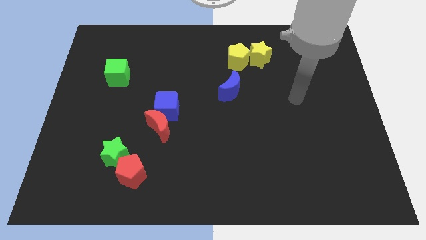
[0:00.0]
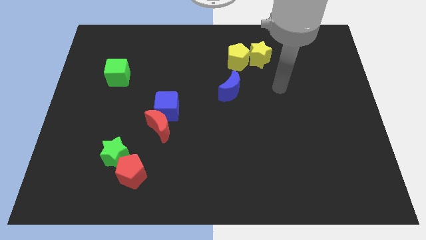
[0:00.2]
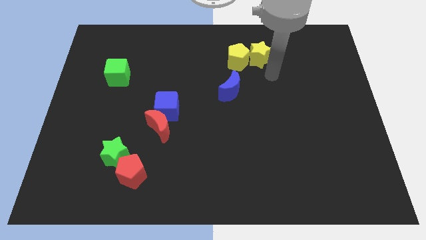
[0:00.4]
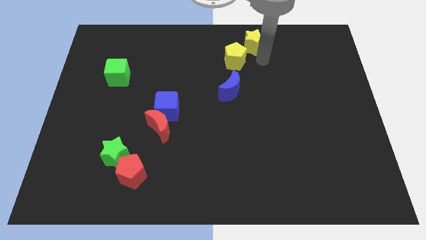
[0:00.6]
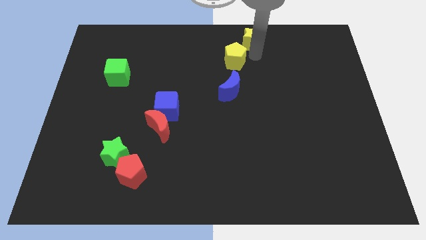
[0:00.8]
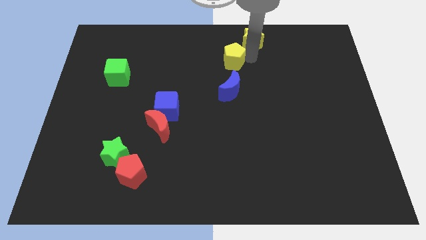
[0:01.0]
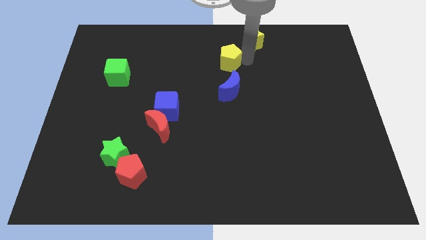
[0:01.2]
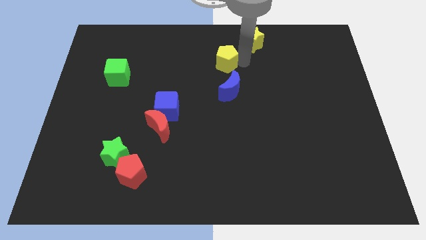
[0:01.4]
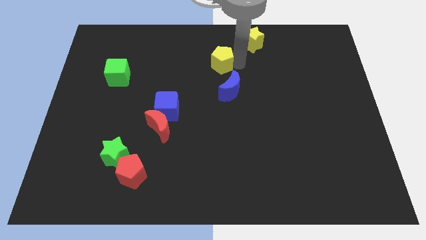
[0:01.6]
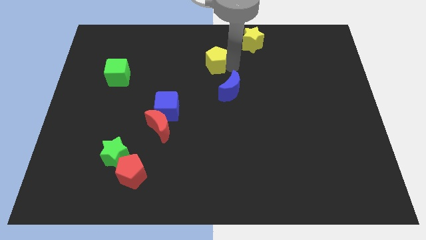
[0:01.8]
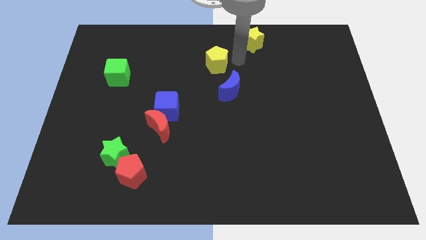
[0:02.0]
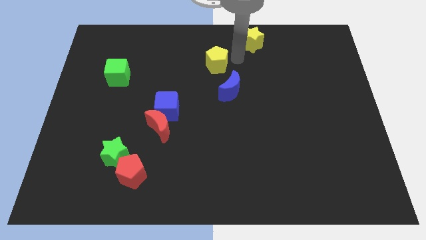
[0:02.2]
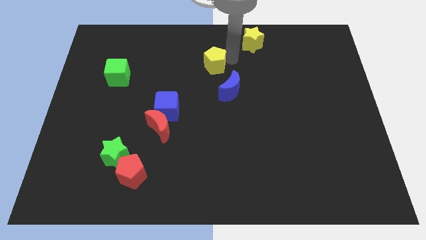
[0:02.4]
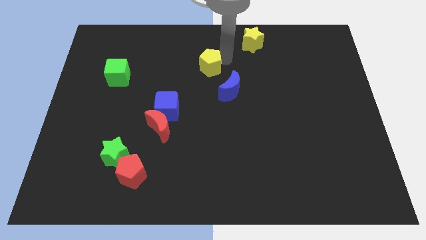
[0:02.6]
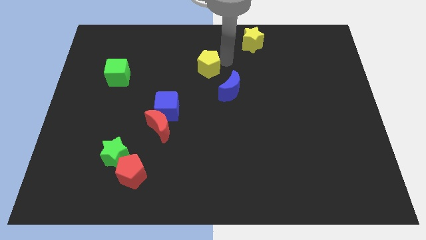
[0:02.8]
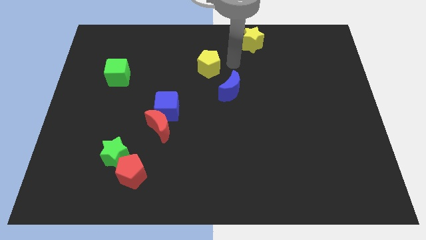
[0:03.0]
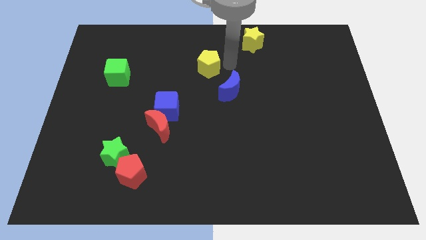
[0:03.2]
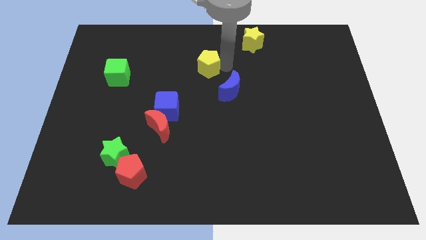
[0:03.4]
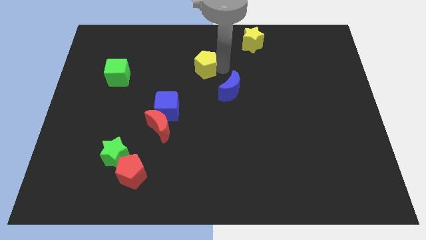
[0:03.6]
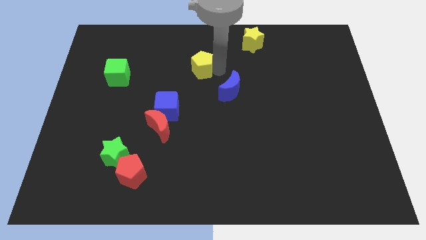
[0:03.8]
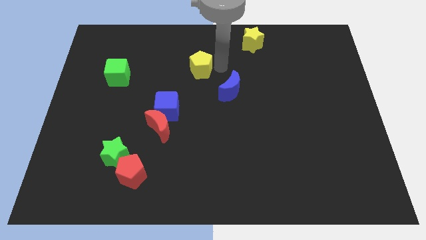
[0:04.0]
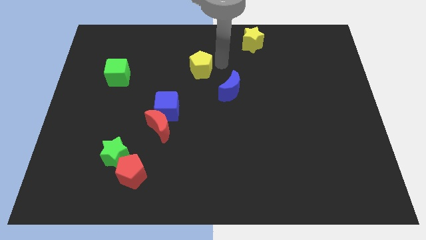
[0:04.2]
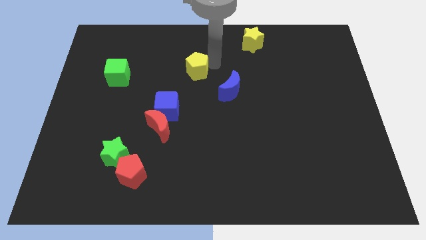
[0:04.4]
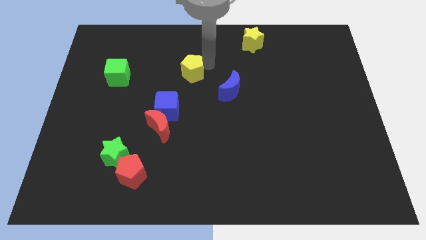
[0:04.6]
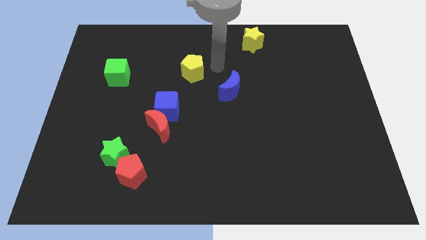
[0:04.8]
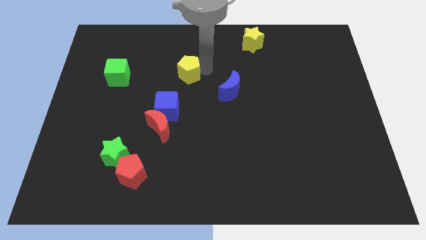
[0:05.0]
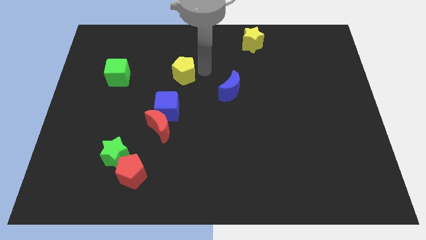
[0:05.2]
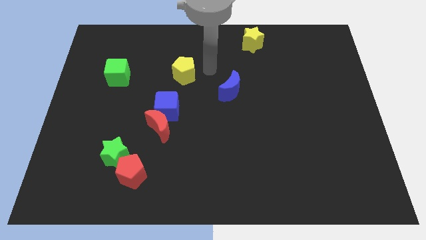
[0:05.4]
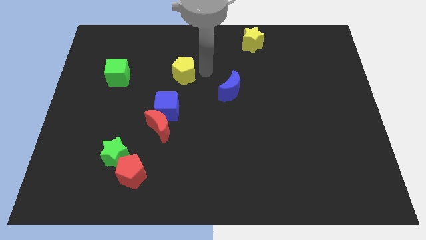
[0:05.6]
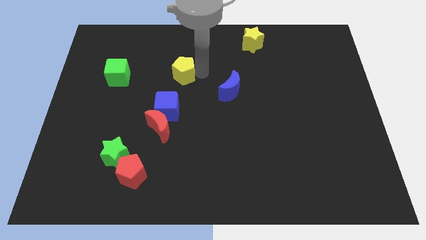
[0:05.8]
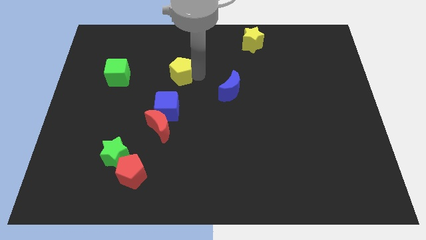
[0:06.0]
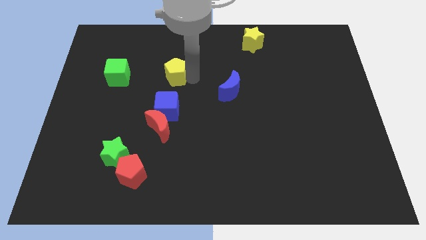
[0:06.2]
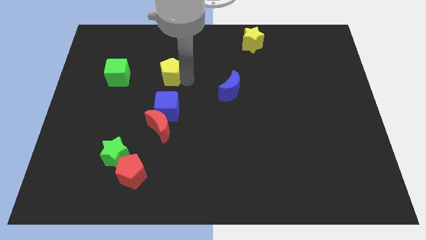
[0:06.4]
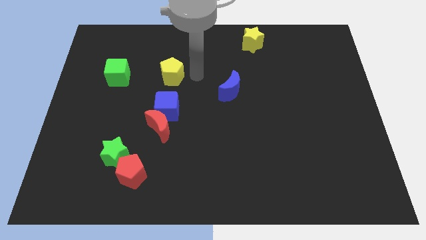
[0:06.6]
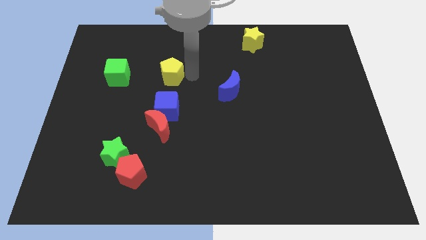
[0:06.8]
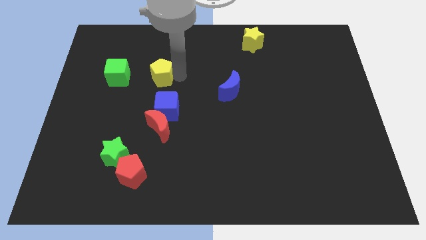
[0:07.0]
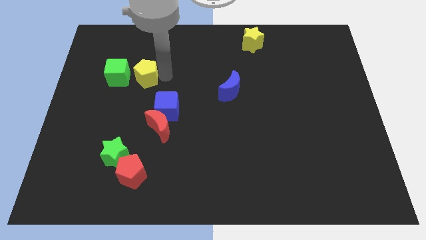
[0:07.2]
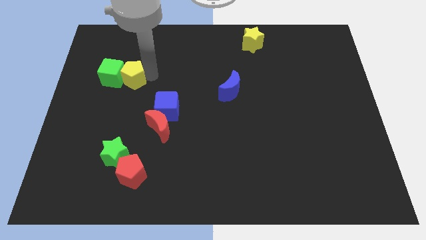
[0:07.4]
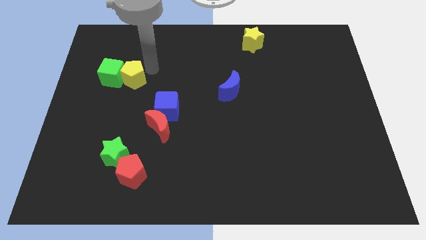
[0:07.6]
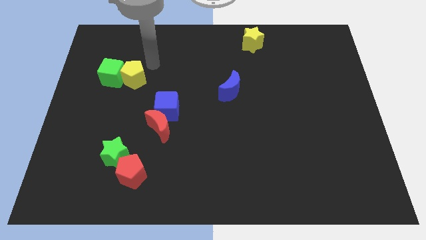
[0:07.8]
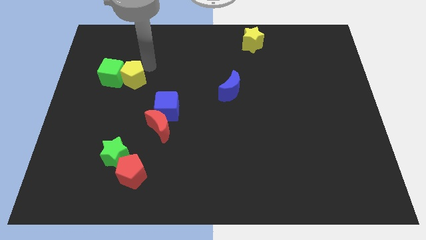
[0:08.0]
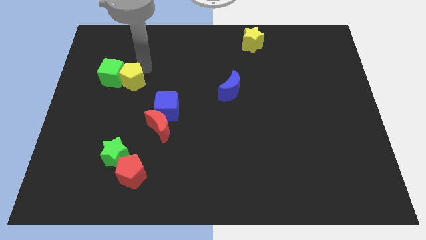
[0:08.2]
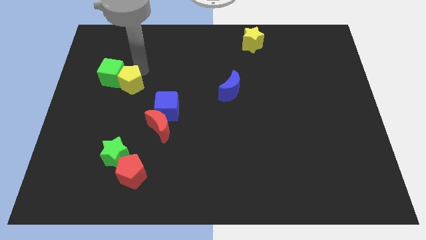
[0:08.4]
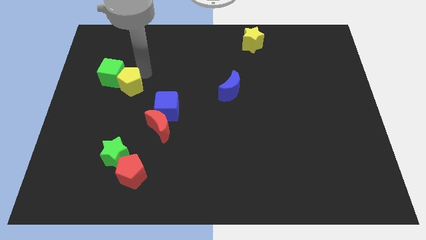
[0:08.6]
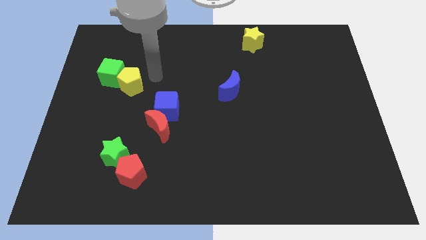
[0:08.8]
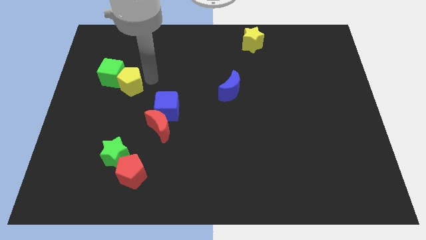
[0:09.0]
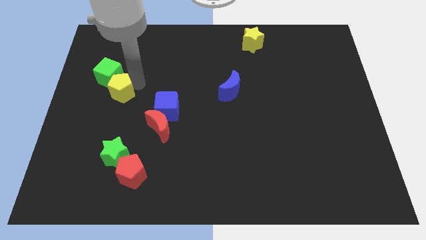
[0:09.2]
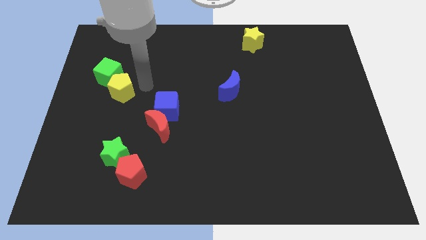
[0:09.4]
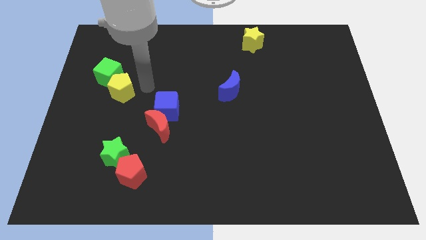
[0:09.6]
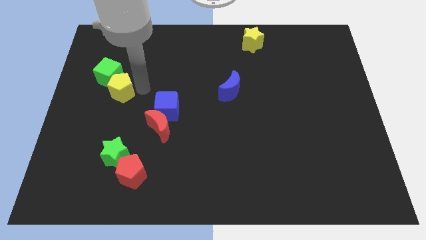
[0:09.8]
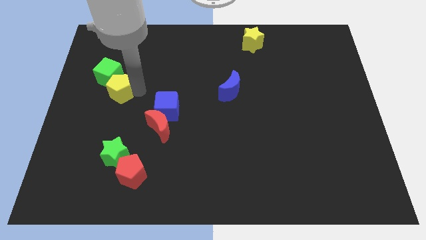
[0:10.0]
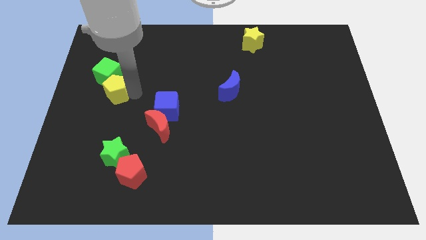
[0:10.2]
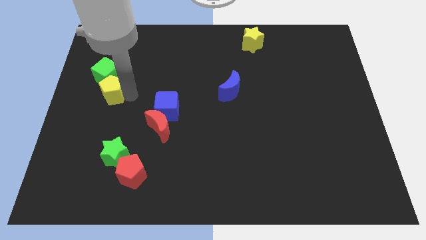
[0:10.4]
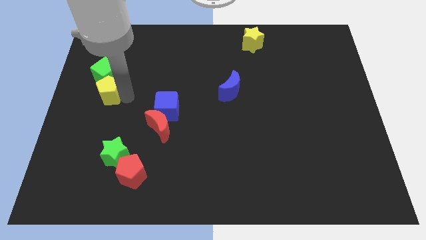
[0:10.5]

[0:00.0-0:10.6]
move the yellow pentagon to the left side

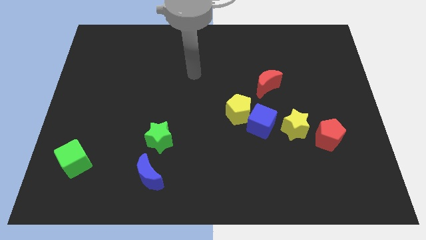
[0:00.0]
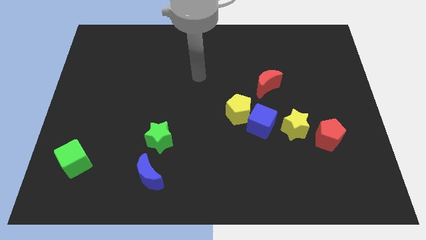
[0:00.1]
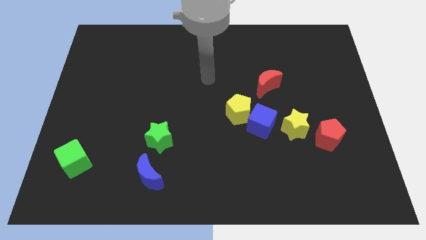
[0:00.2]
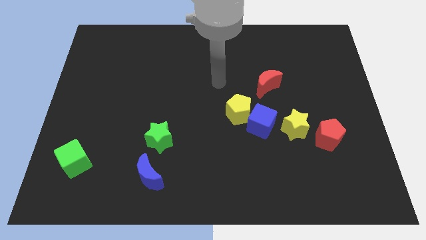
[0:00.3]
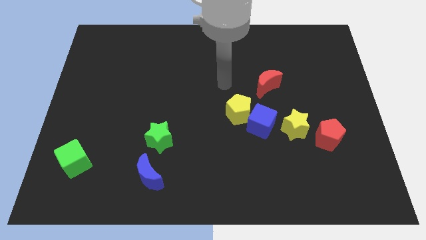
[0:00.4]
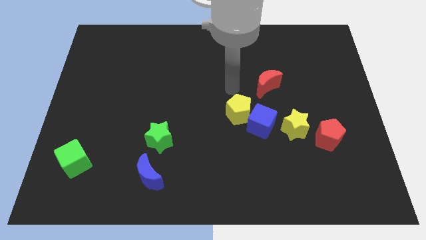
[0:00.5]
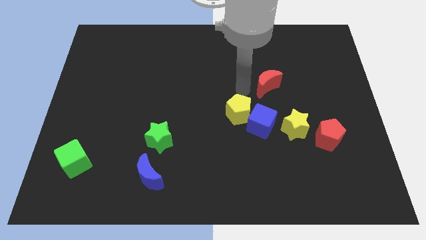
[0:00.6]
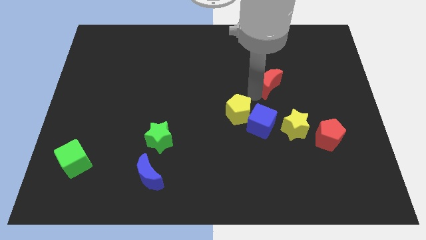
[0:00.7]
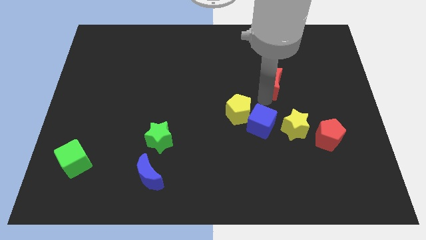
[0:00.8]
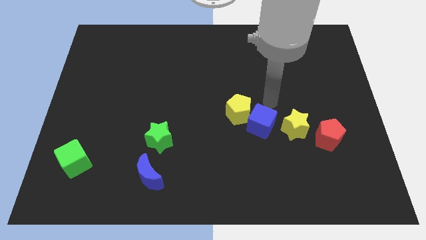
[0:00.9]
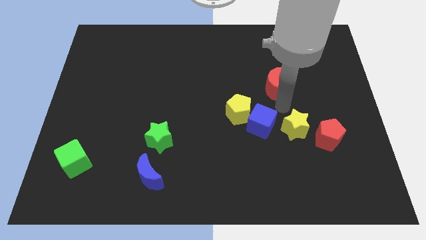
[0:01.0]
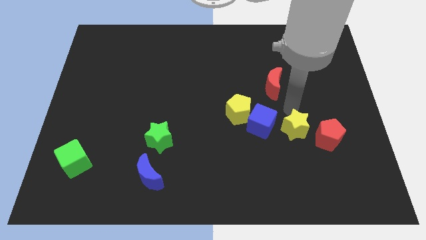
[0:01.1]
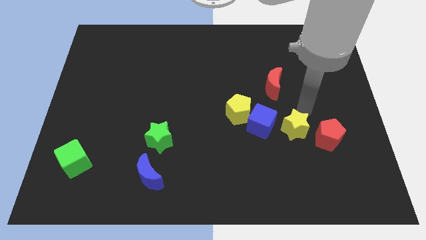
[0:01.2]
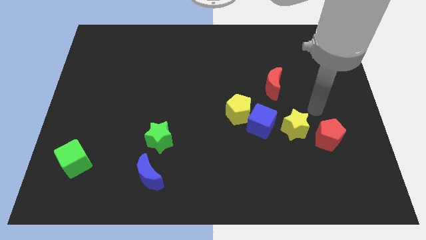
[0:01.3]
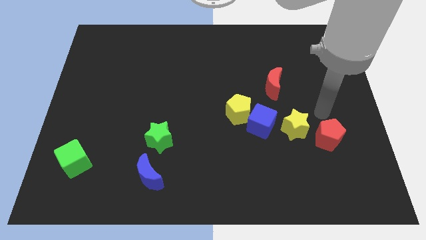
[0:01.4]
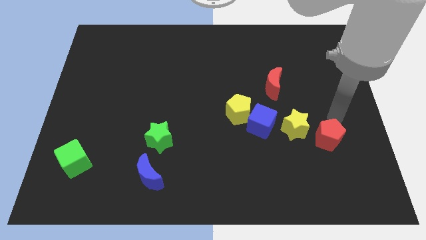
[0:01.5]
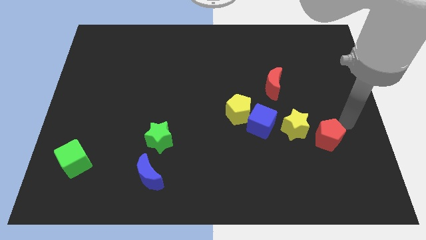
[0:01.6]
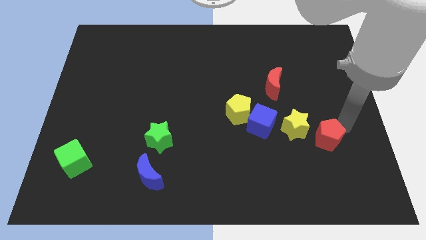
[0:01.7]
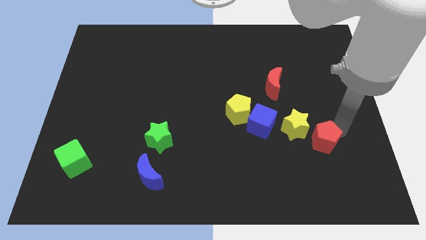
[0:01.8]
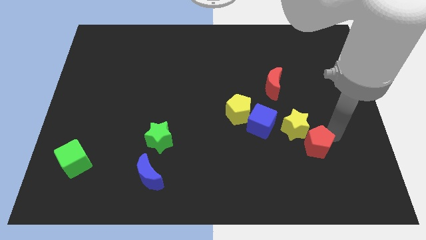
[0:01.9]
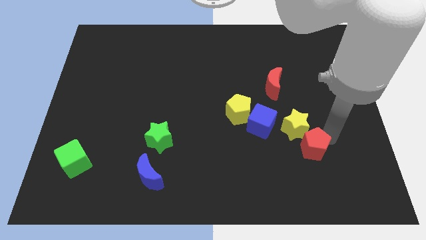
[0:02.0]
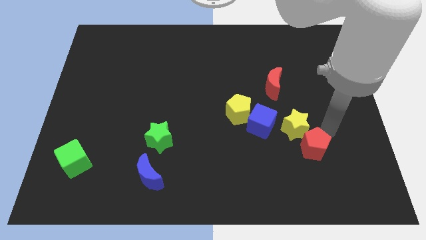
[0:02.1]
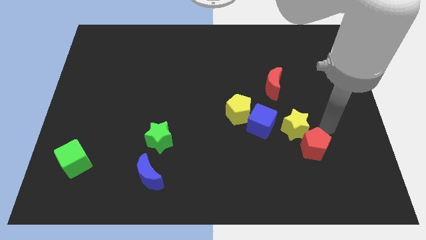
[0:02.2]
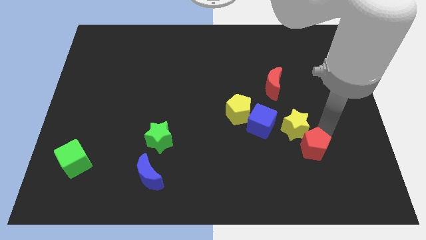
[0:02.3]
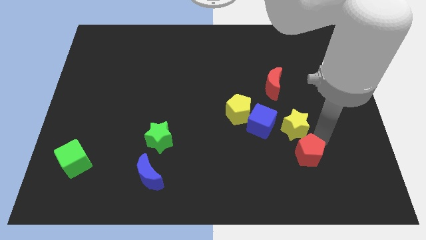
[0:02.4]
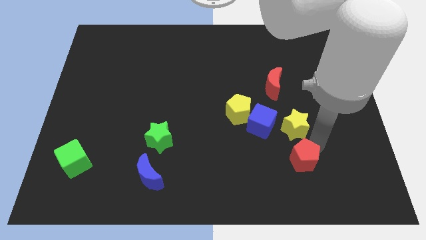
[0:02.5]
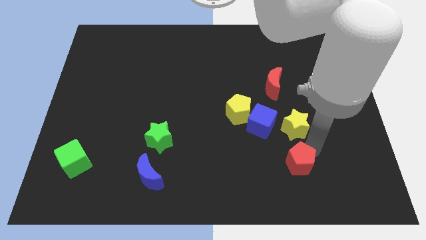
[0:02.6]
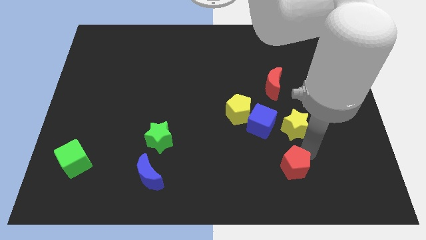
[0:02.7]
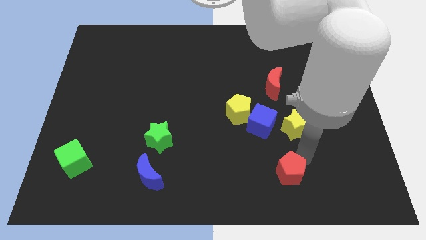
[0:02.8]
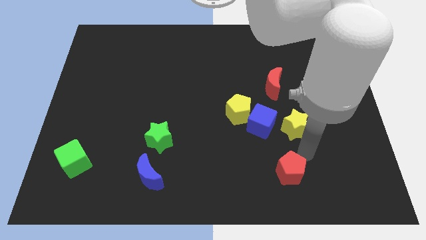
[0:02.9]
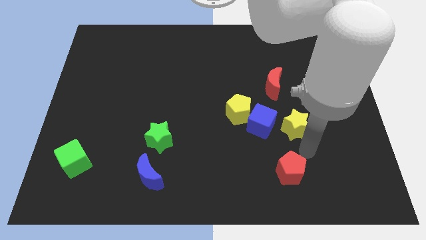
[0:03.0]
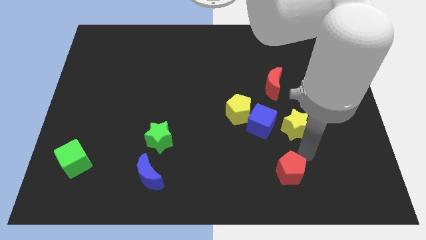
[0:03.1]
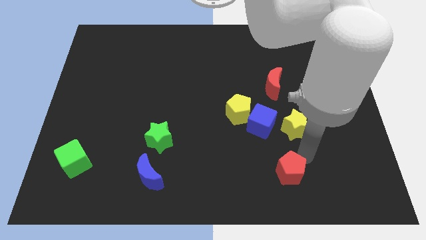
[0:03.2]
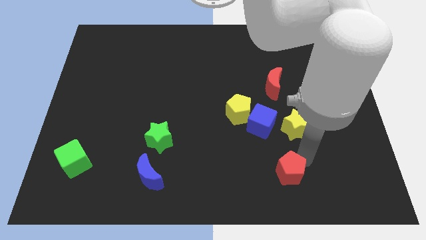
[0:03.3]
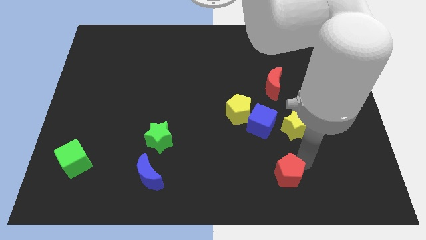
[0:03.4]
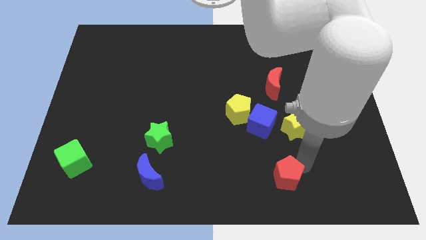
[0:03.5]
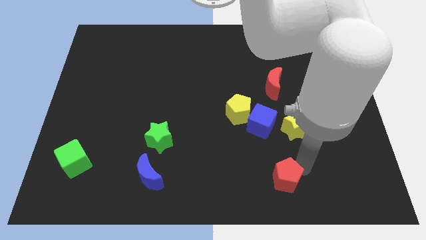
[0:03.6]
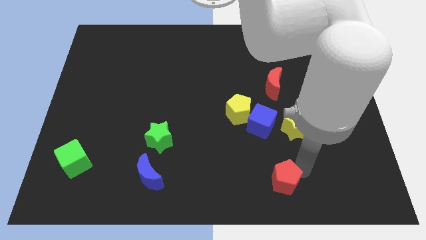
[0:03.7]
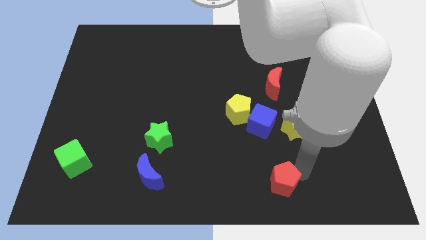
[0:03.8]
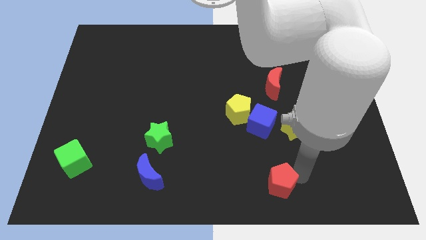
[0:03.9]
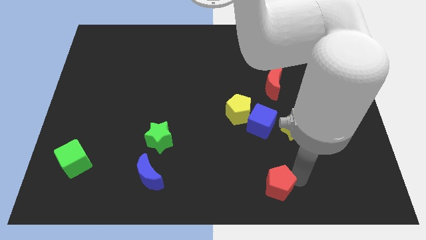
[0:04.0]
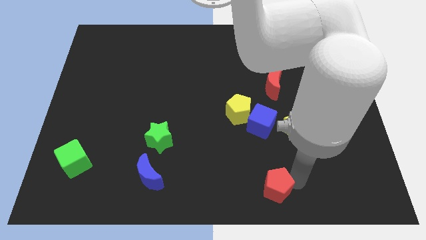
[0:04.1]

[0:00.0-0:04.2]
slide the red pentagon to the bottom side
